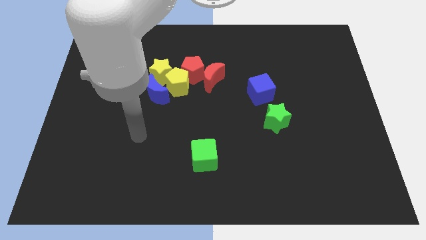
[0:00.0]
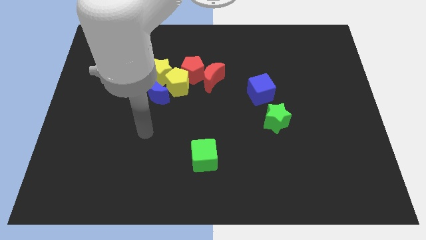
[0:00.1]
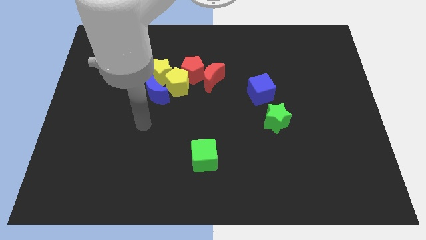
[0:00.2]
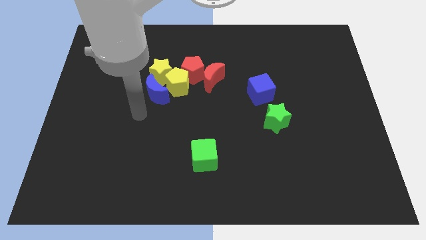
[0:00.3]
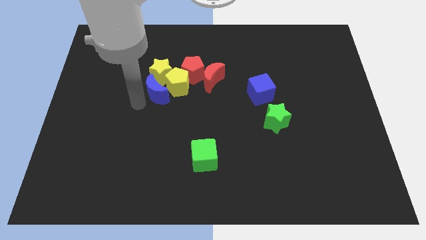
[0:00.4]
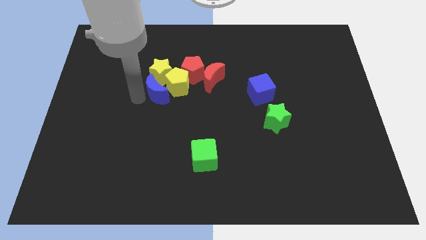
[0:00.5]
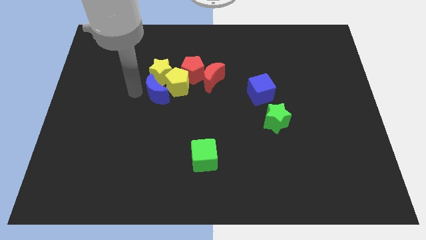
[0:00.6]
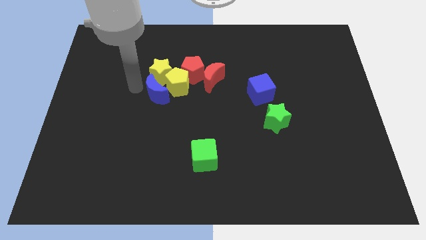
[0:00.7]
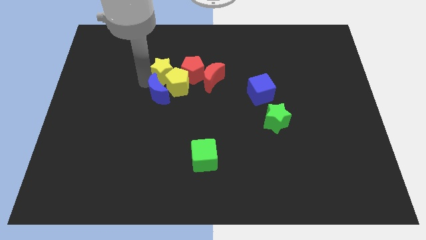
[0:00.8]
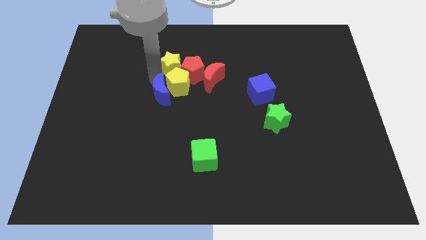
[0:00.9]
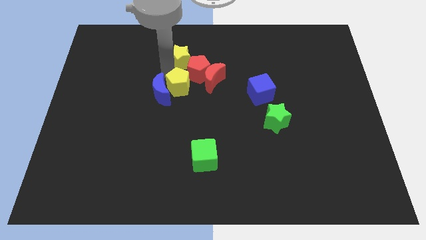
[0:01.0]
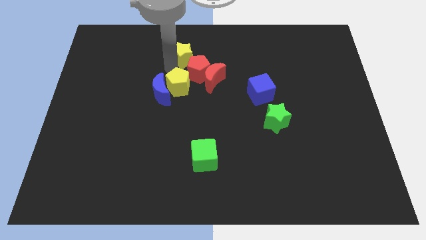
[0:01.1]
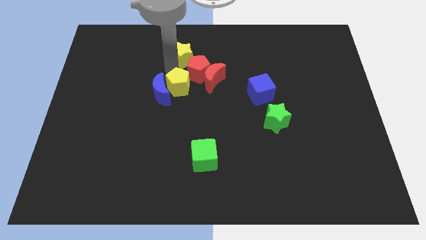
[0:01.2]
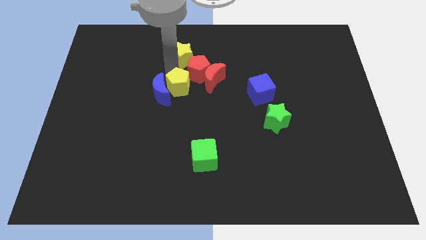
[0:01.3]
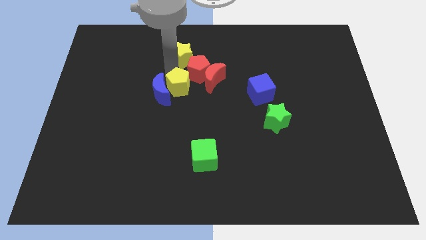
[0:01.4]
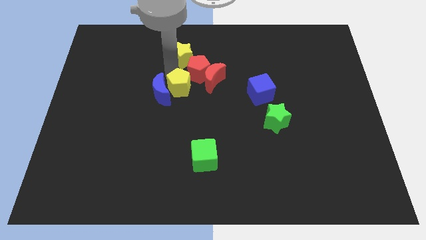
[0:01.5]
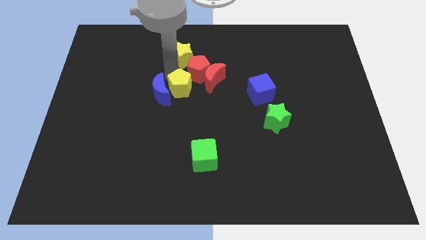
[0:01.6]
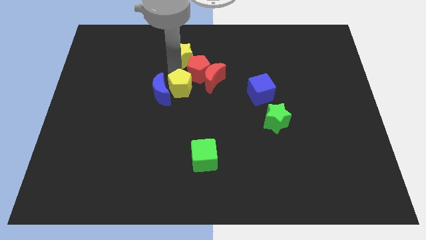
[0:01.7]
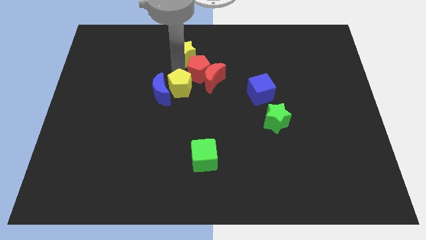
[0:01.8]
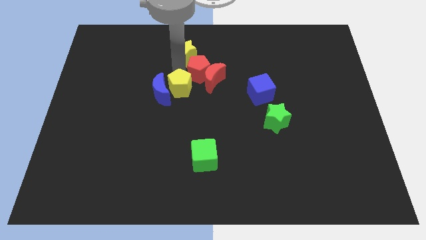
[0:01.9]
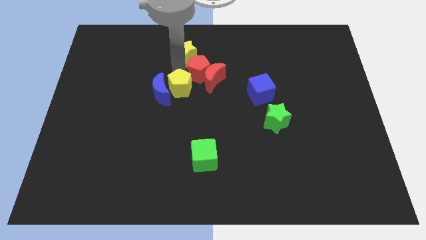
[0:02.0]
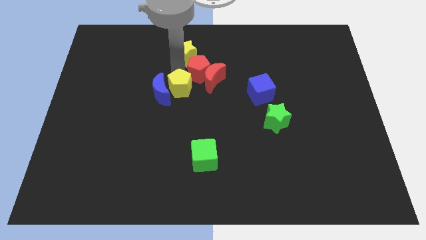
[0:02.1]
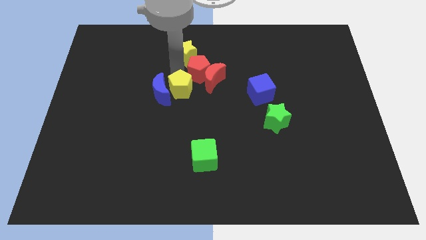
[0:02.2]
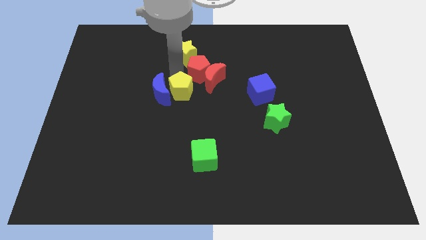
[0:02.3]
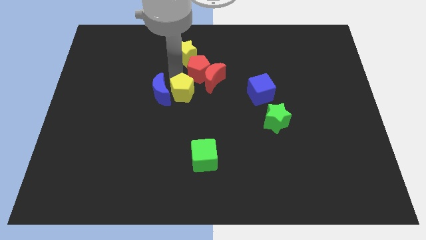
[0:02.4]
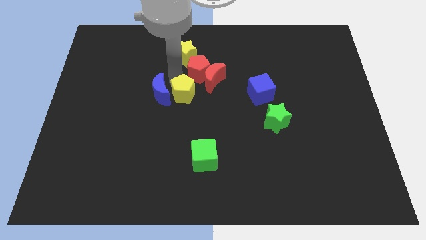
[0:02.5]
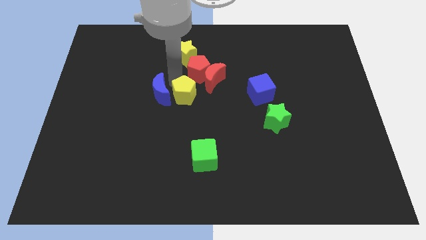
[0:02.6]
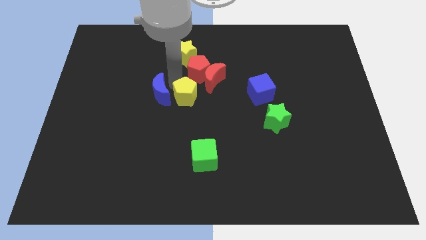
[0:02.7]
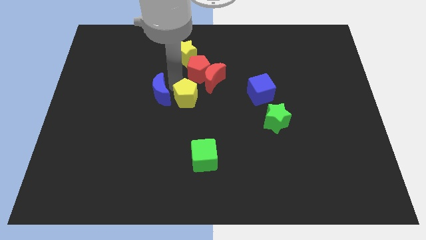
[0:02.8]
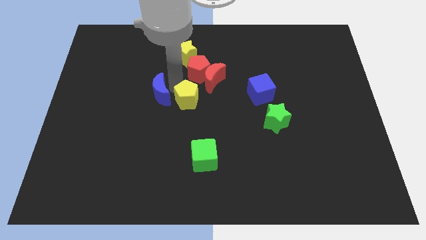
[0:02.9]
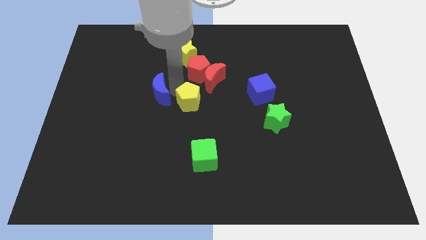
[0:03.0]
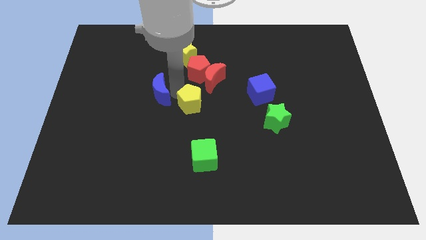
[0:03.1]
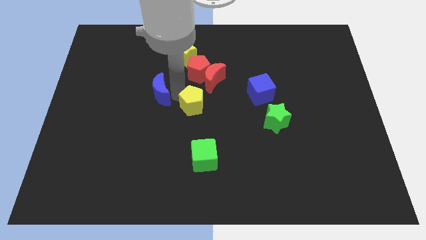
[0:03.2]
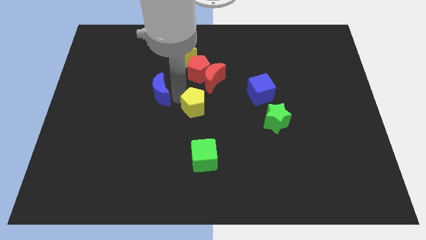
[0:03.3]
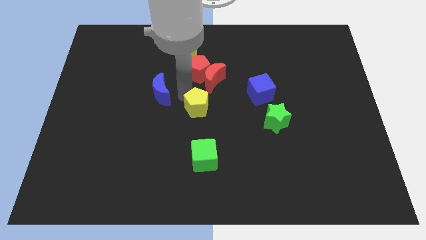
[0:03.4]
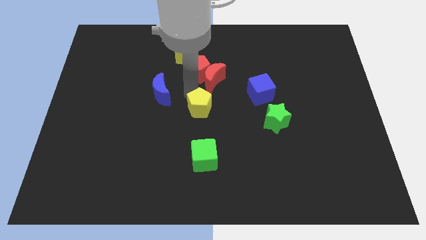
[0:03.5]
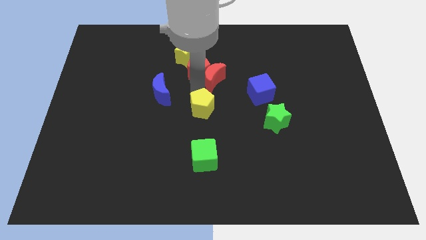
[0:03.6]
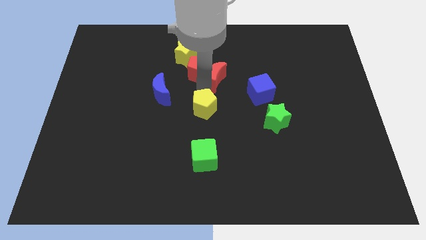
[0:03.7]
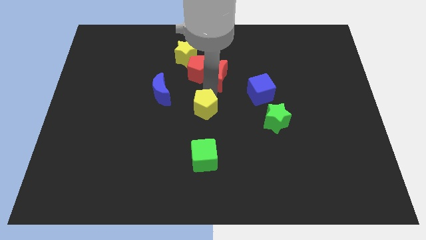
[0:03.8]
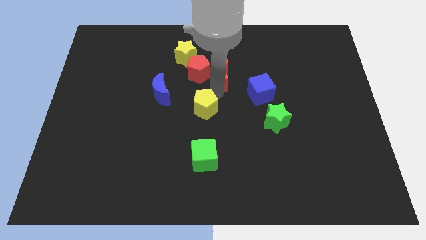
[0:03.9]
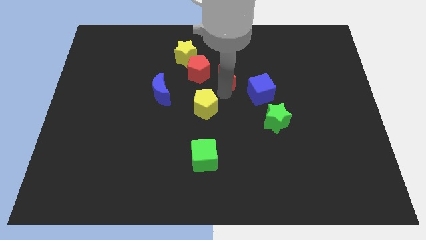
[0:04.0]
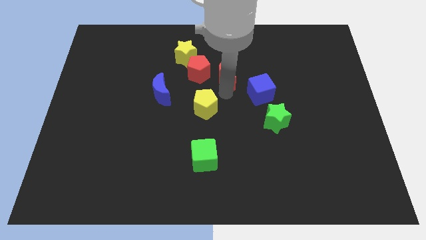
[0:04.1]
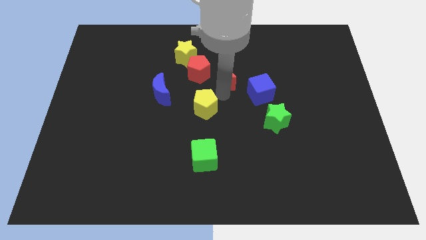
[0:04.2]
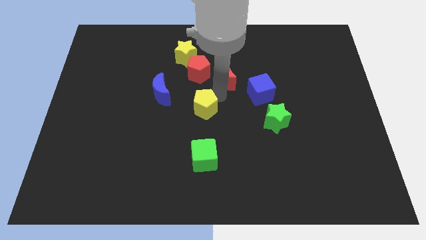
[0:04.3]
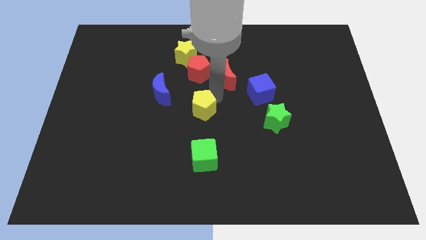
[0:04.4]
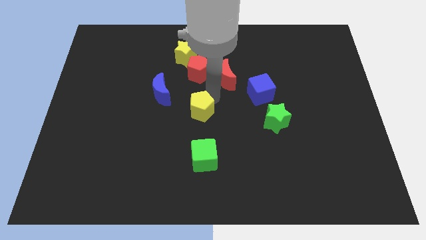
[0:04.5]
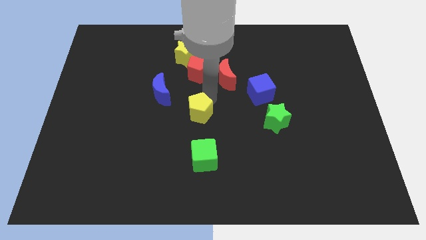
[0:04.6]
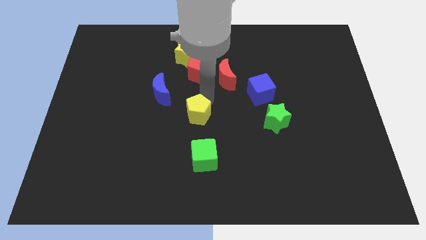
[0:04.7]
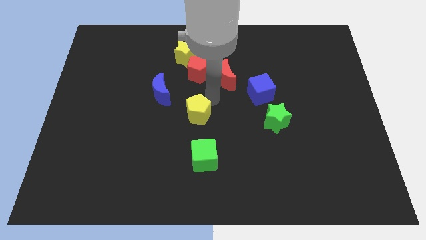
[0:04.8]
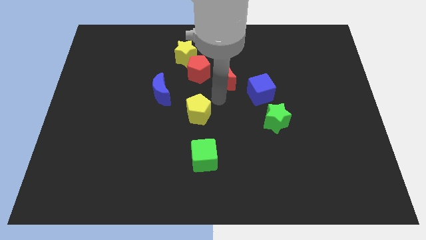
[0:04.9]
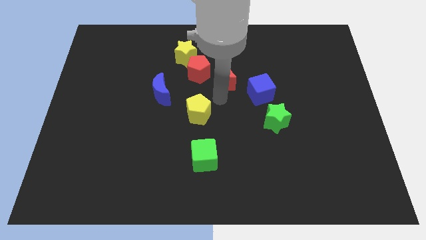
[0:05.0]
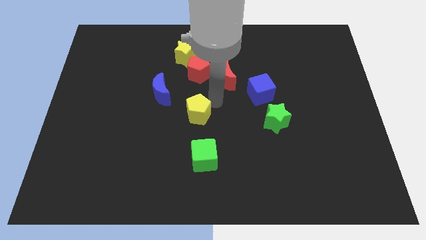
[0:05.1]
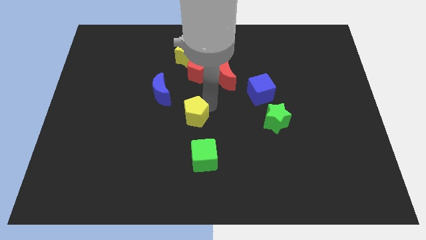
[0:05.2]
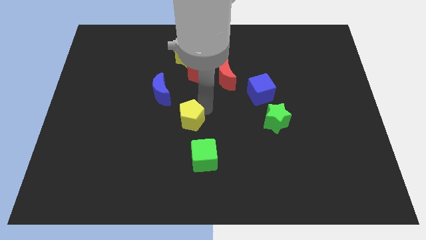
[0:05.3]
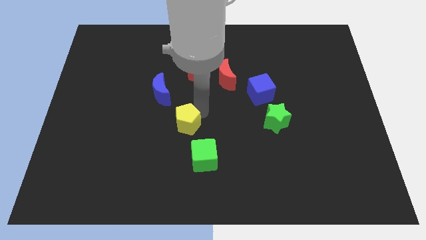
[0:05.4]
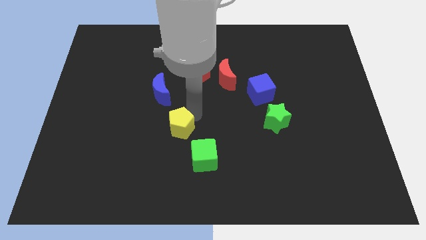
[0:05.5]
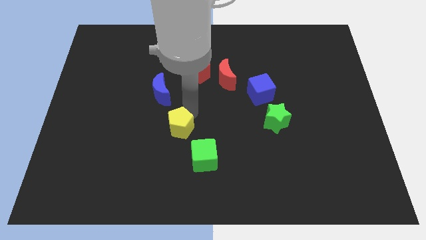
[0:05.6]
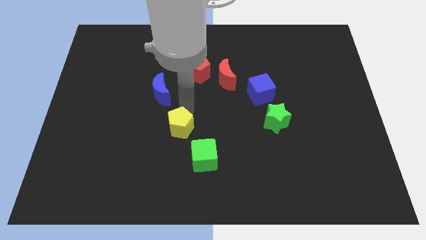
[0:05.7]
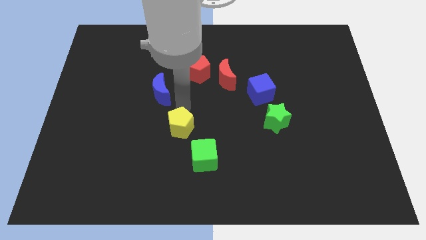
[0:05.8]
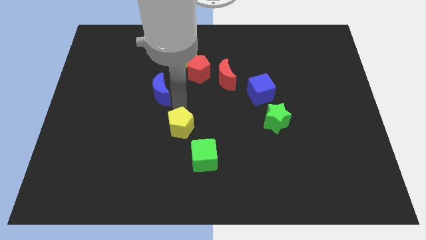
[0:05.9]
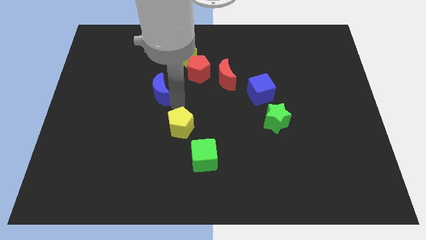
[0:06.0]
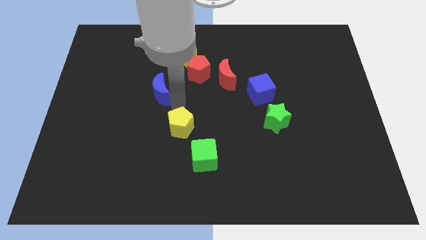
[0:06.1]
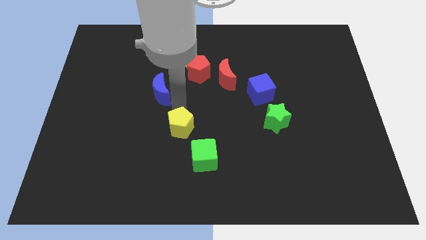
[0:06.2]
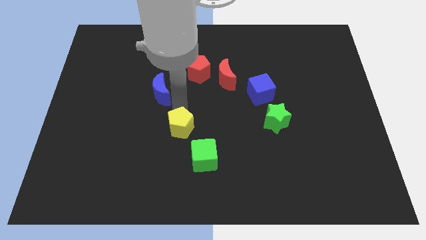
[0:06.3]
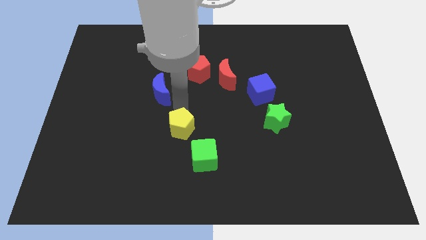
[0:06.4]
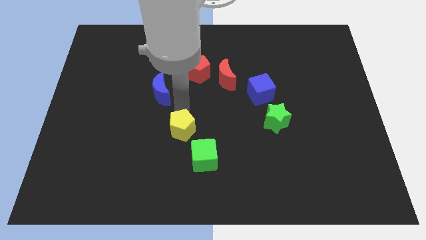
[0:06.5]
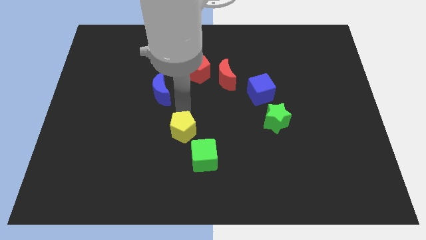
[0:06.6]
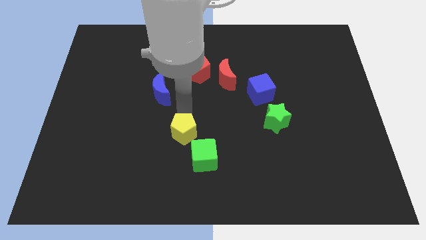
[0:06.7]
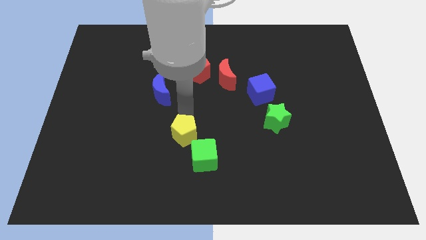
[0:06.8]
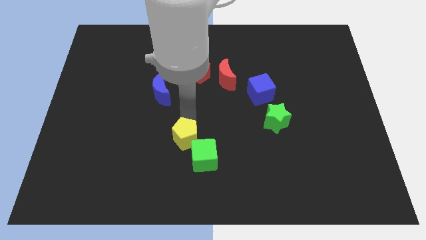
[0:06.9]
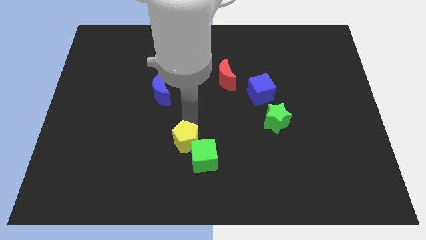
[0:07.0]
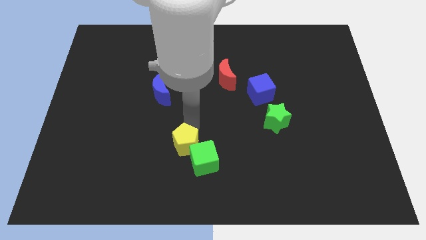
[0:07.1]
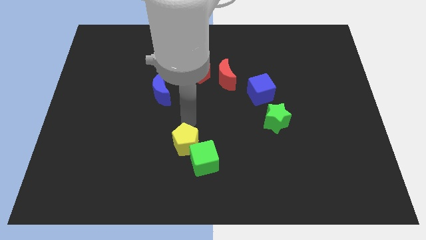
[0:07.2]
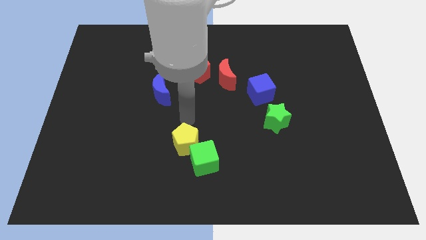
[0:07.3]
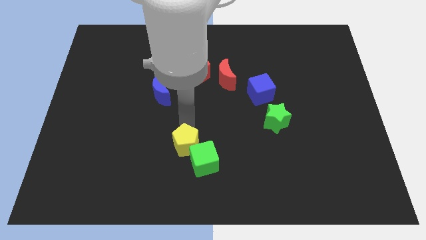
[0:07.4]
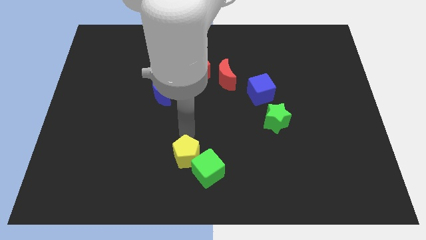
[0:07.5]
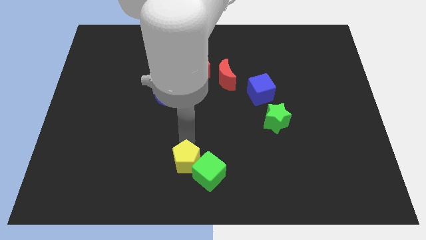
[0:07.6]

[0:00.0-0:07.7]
move the yellow pentagon to the bottom
